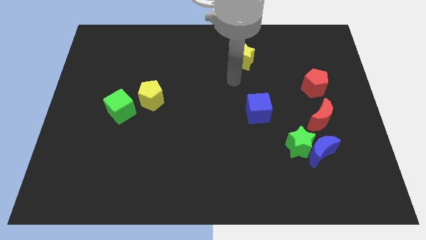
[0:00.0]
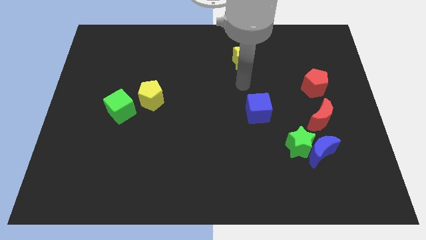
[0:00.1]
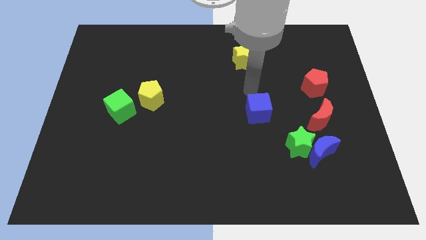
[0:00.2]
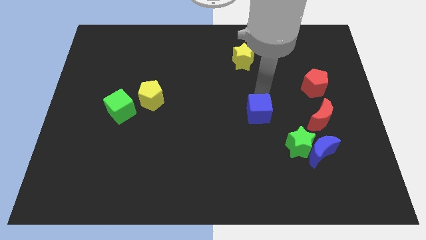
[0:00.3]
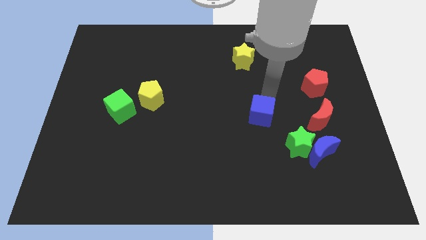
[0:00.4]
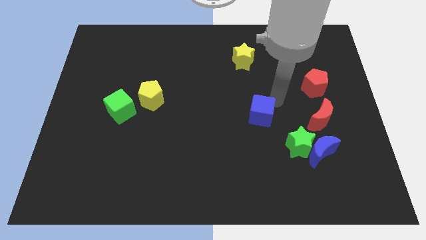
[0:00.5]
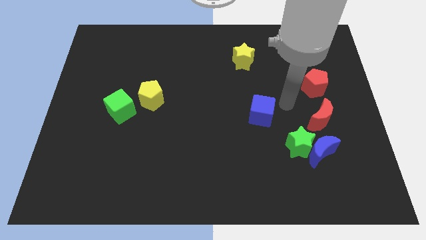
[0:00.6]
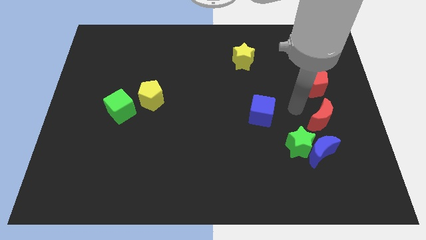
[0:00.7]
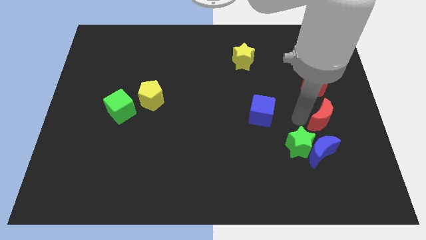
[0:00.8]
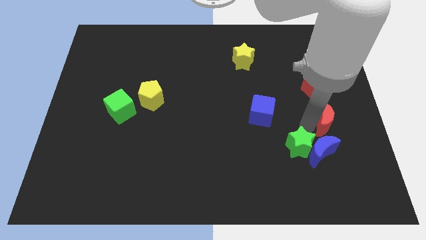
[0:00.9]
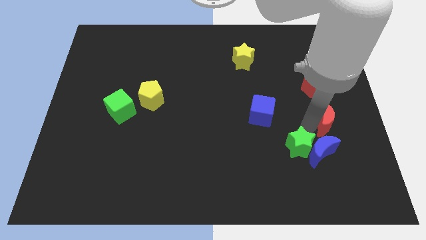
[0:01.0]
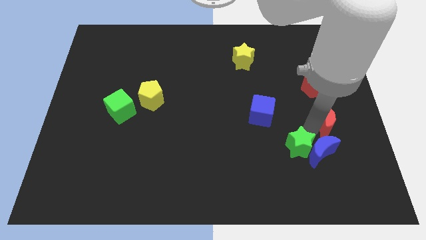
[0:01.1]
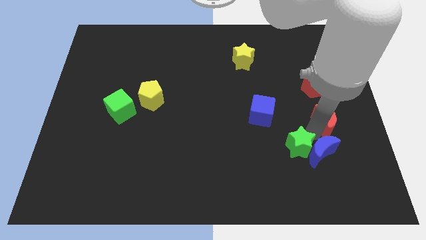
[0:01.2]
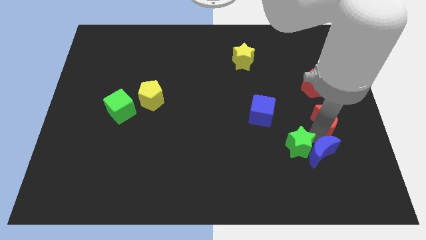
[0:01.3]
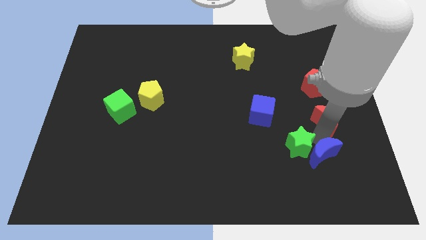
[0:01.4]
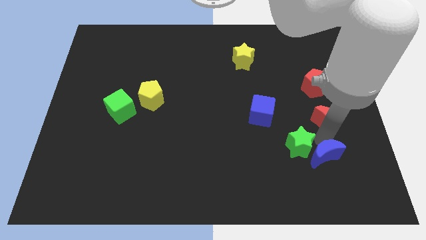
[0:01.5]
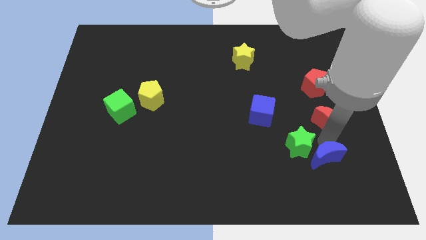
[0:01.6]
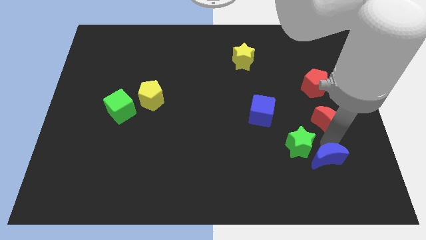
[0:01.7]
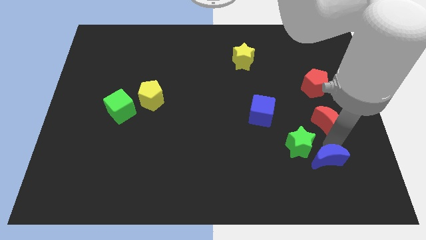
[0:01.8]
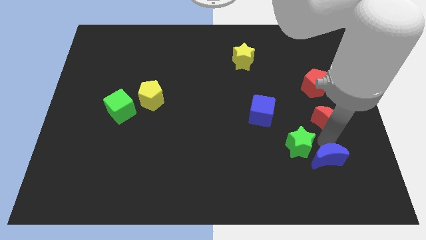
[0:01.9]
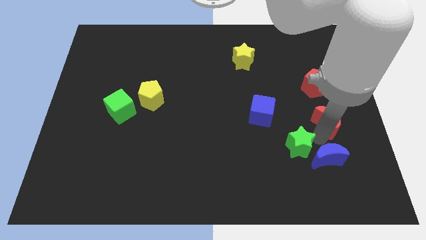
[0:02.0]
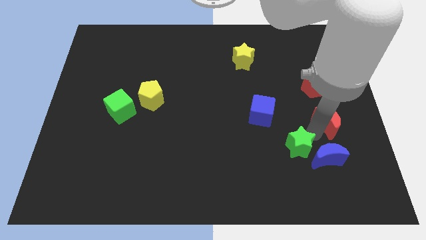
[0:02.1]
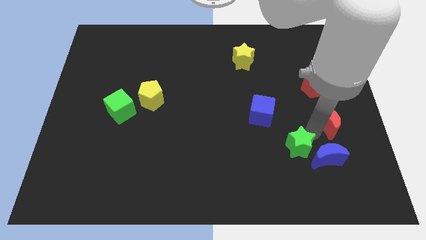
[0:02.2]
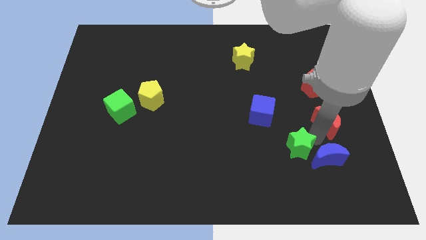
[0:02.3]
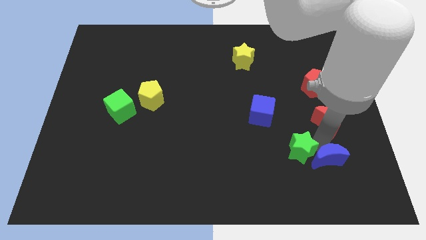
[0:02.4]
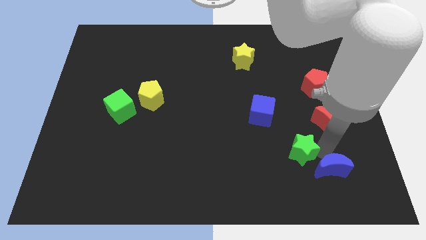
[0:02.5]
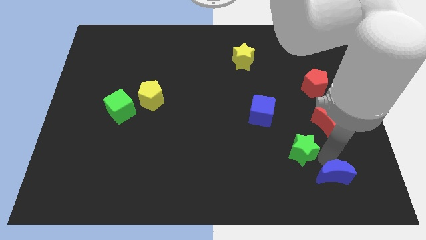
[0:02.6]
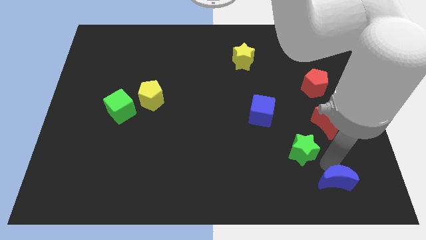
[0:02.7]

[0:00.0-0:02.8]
move the blue moon away from the green star and red moon

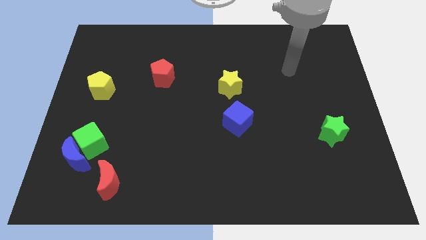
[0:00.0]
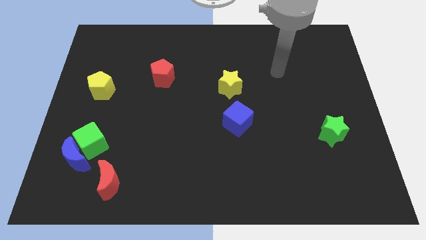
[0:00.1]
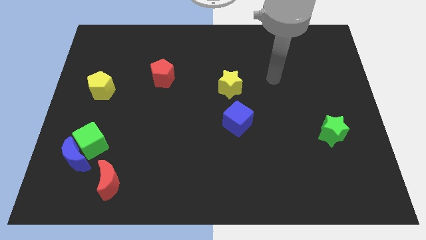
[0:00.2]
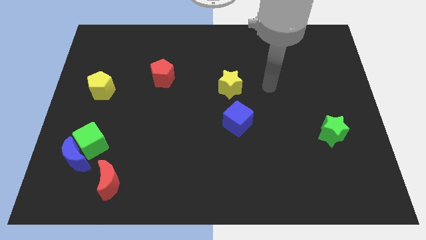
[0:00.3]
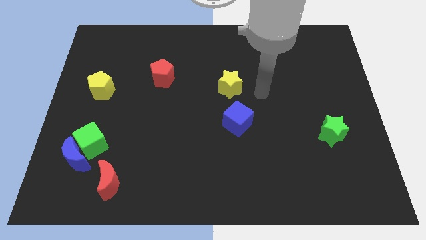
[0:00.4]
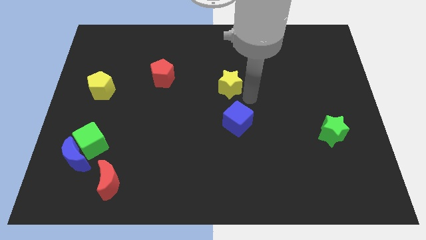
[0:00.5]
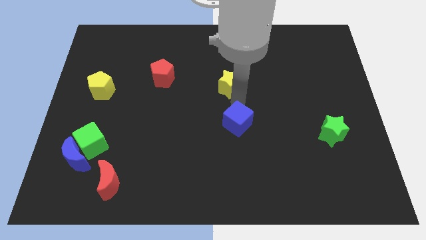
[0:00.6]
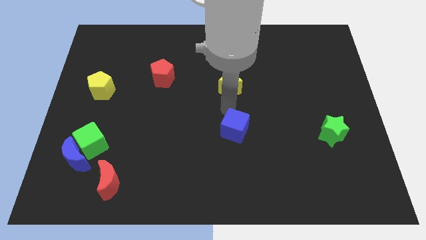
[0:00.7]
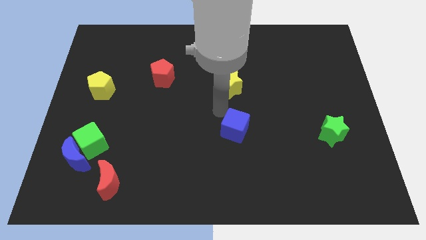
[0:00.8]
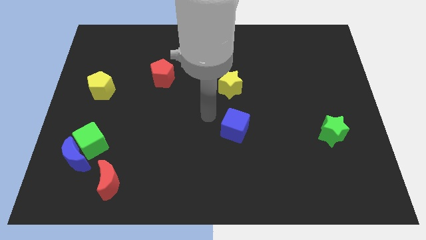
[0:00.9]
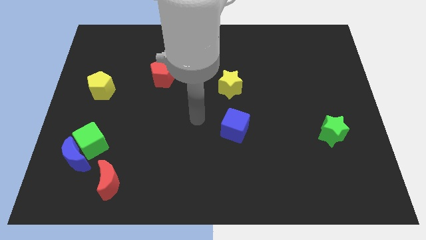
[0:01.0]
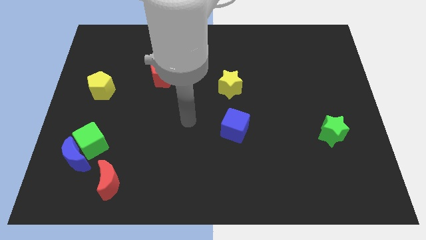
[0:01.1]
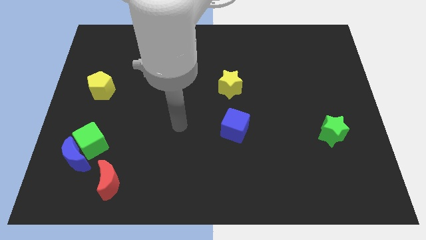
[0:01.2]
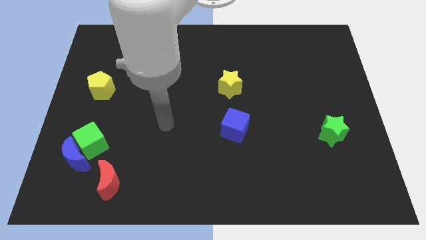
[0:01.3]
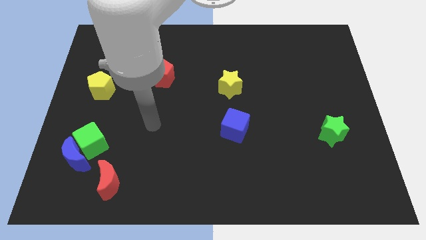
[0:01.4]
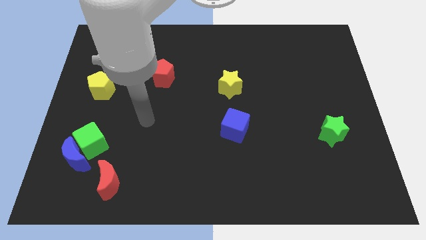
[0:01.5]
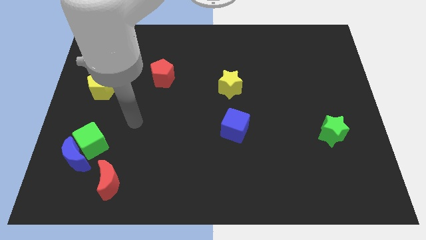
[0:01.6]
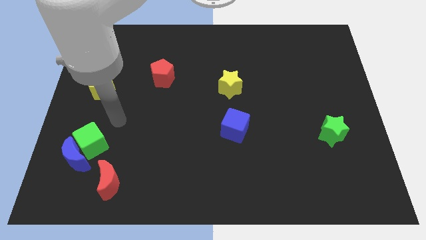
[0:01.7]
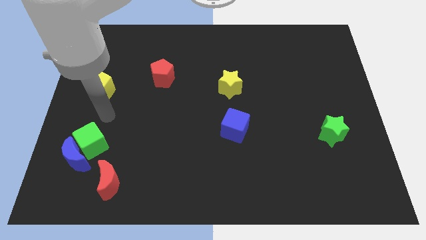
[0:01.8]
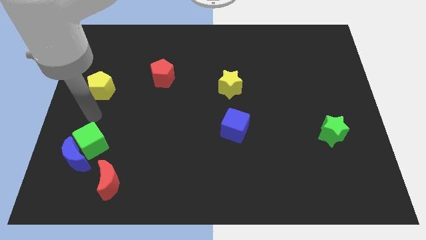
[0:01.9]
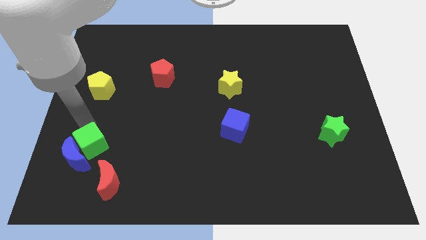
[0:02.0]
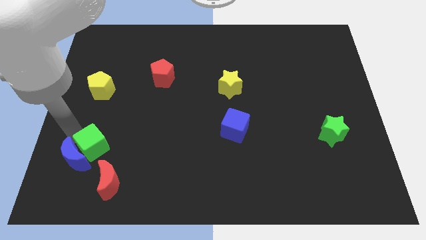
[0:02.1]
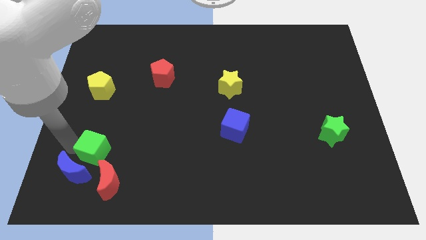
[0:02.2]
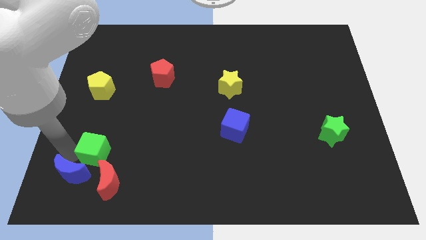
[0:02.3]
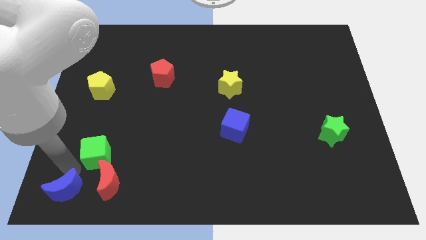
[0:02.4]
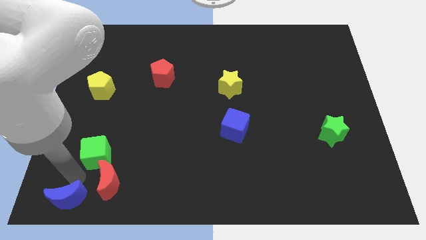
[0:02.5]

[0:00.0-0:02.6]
separate the green cube from the blue moon

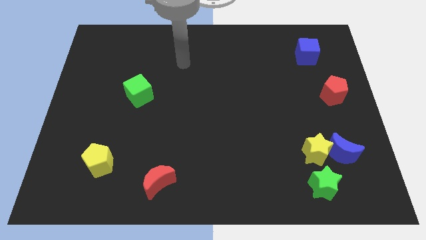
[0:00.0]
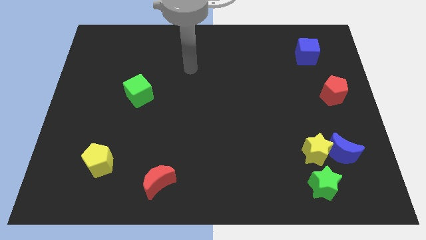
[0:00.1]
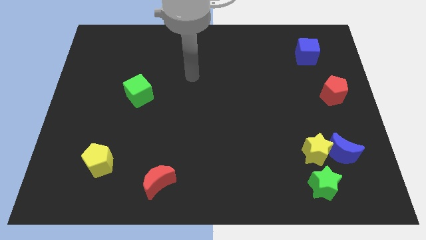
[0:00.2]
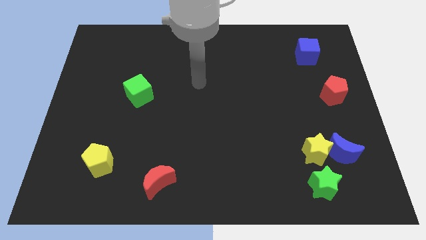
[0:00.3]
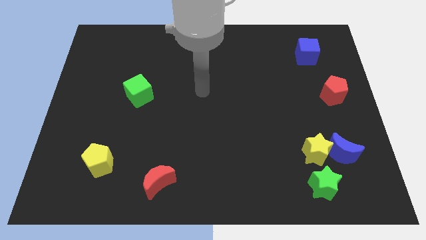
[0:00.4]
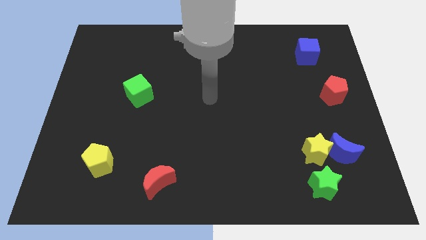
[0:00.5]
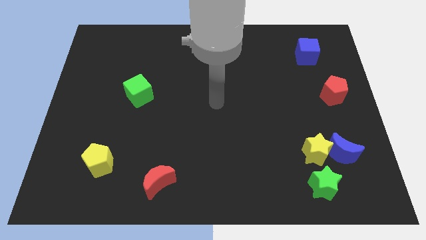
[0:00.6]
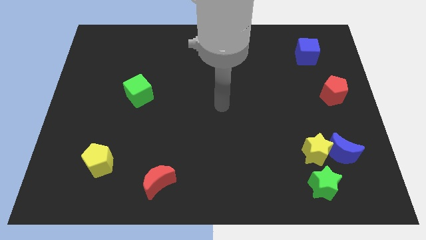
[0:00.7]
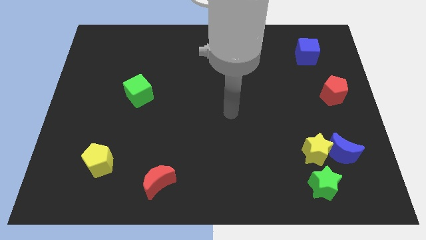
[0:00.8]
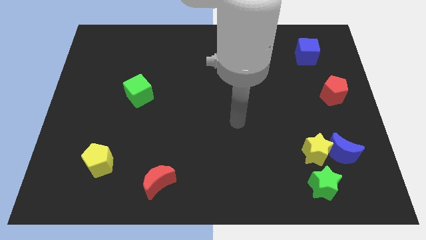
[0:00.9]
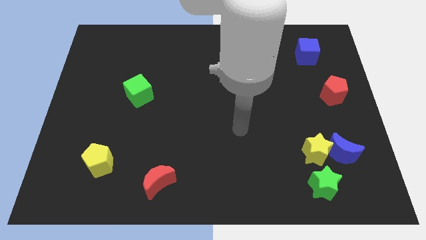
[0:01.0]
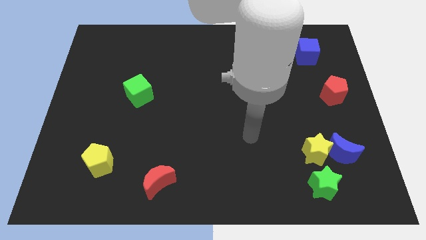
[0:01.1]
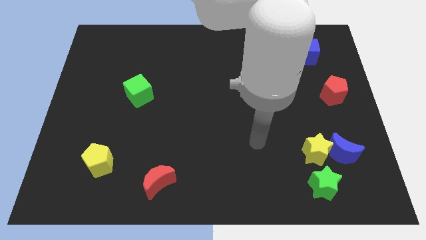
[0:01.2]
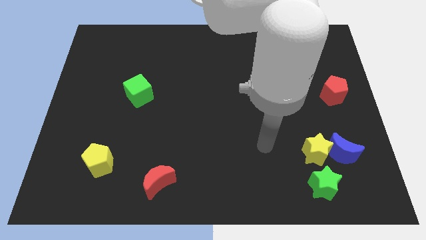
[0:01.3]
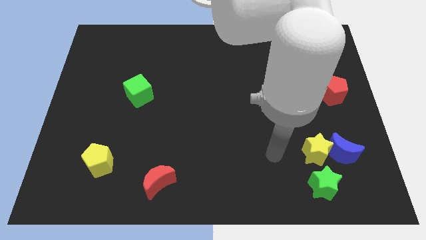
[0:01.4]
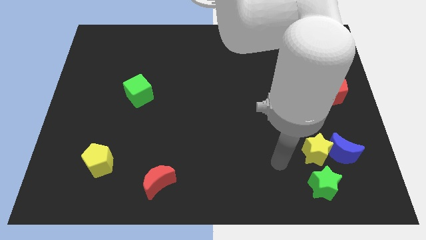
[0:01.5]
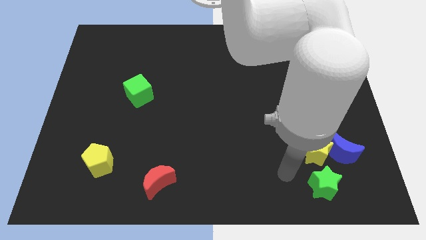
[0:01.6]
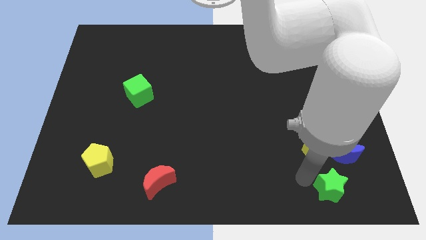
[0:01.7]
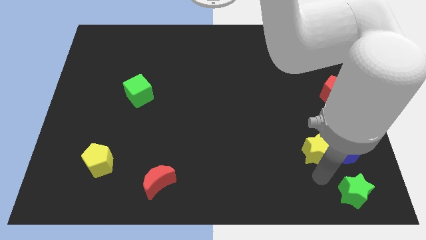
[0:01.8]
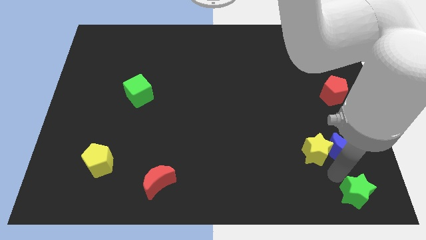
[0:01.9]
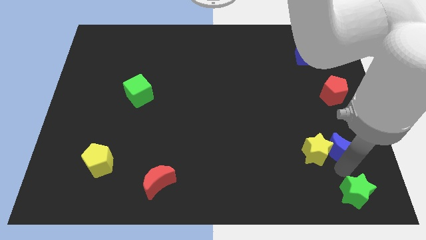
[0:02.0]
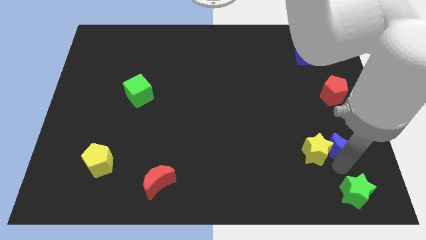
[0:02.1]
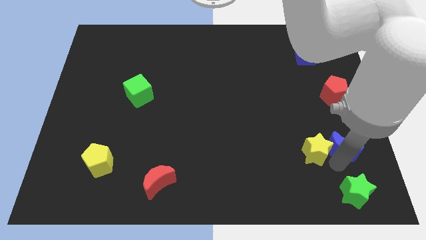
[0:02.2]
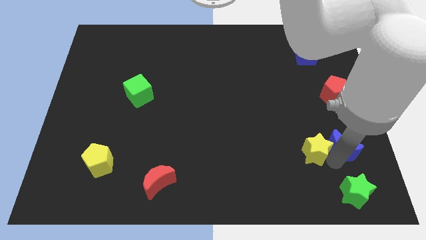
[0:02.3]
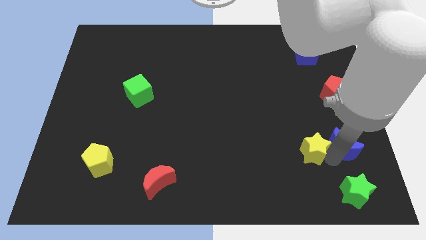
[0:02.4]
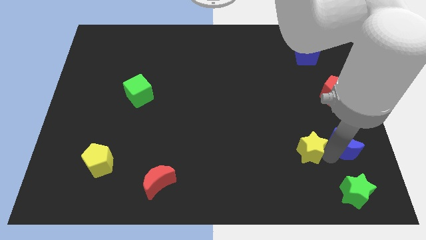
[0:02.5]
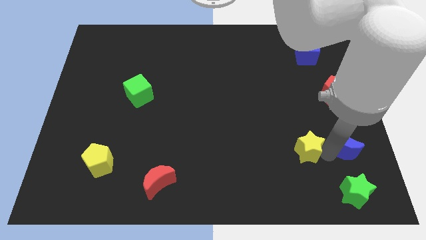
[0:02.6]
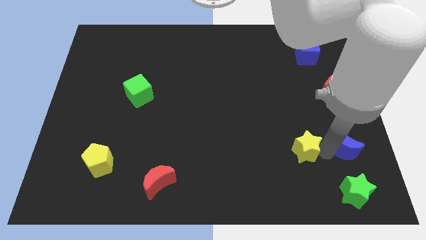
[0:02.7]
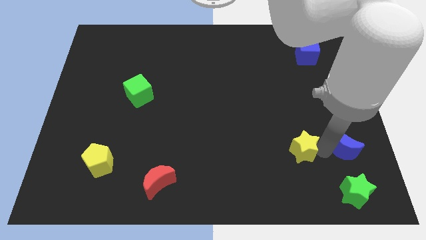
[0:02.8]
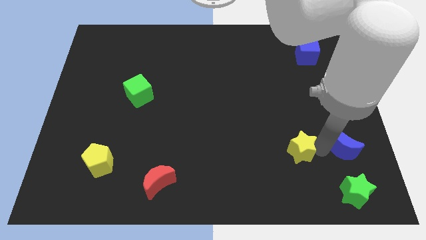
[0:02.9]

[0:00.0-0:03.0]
separate the yellow star from the blue moon and green star

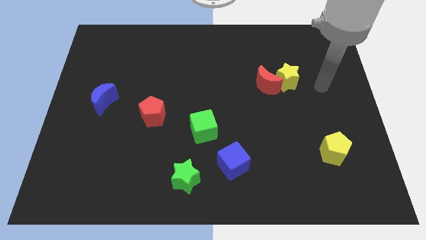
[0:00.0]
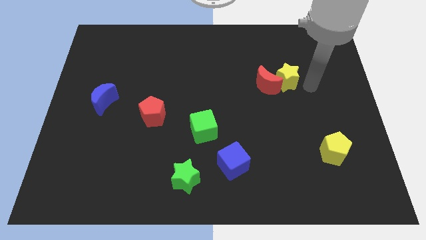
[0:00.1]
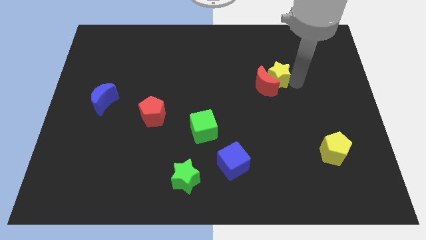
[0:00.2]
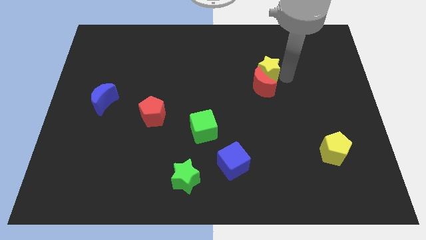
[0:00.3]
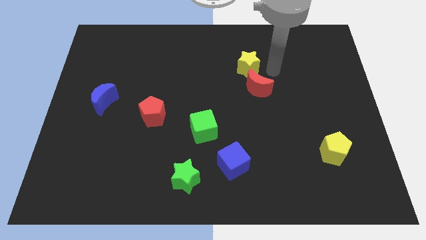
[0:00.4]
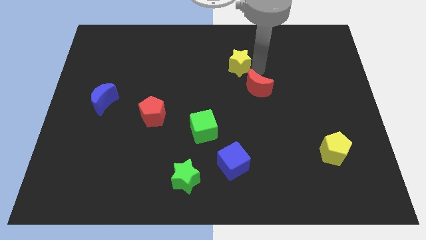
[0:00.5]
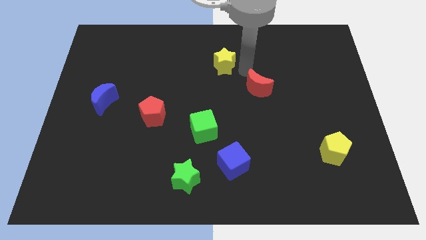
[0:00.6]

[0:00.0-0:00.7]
separate the red moon from the yellow star

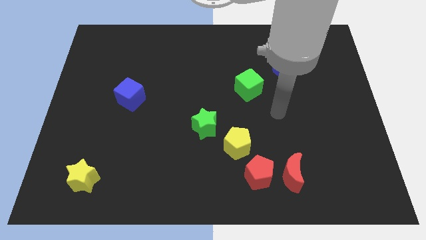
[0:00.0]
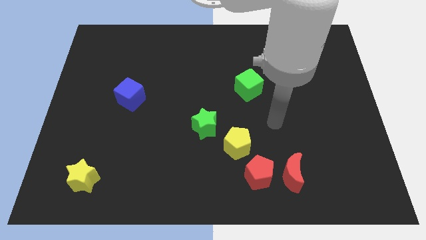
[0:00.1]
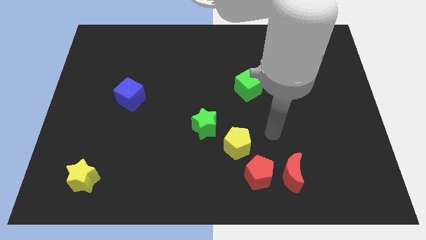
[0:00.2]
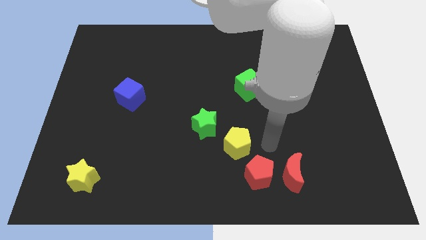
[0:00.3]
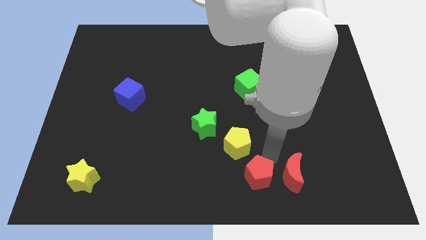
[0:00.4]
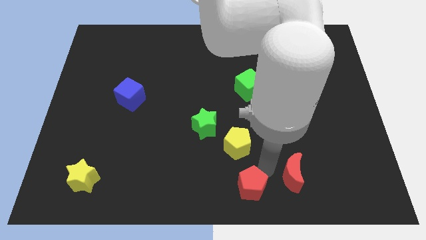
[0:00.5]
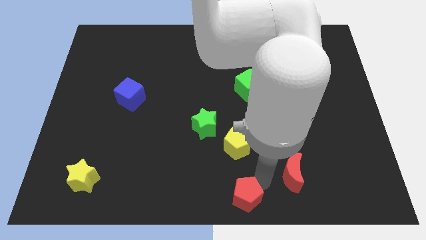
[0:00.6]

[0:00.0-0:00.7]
separate the red moon from the red pentagon
